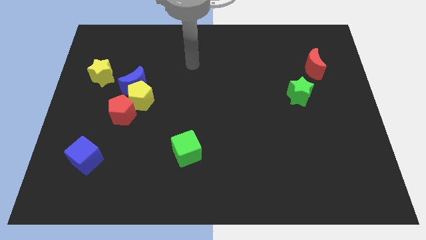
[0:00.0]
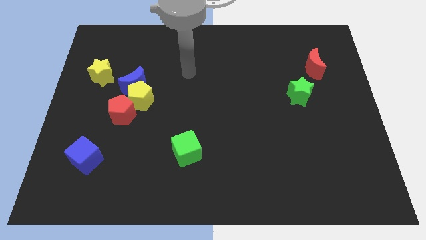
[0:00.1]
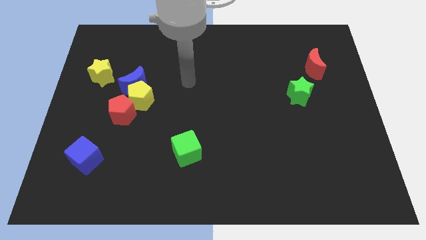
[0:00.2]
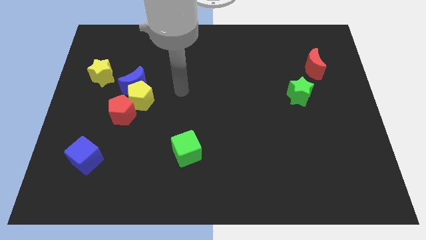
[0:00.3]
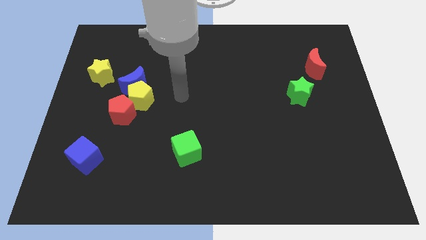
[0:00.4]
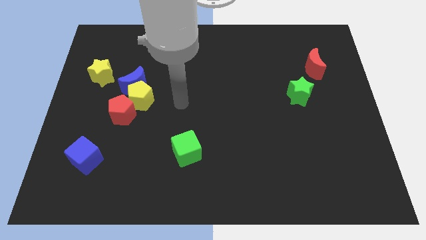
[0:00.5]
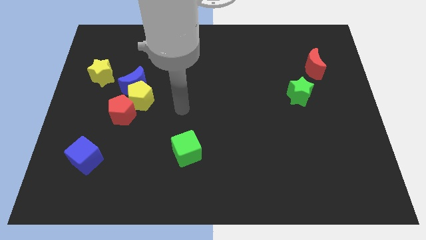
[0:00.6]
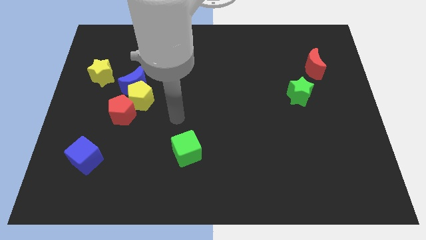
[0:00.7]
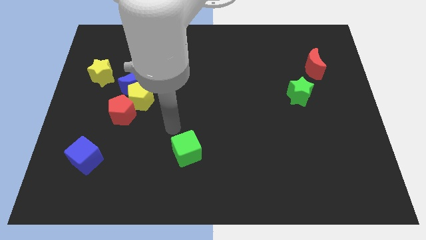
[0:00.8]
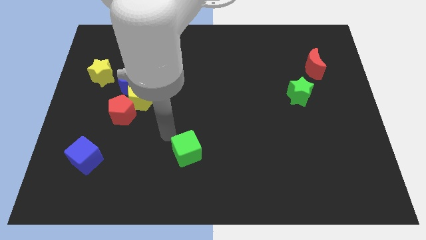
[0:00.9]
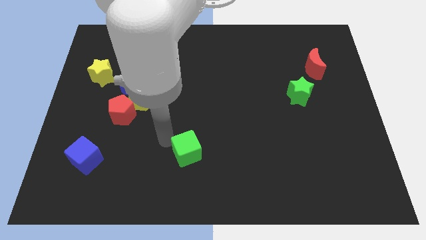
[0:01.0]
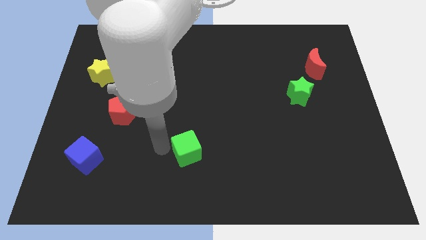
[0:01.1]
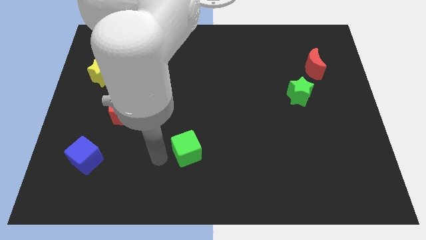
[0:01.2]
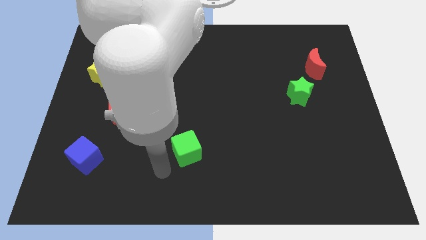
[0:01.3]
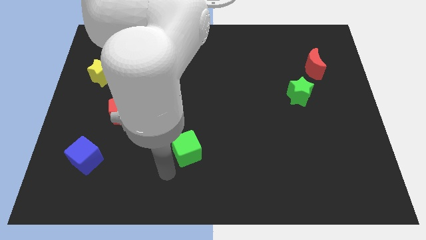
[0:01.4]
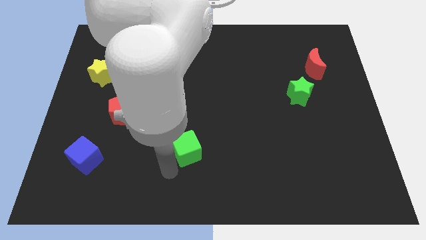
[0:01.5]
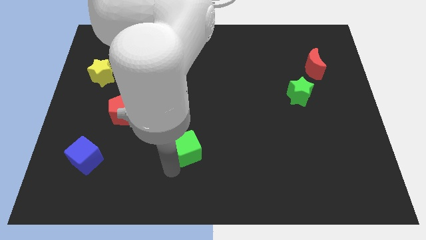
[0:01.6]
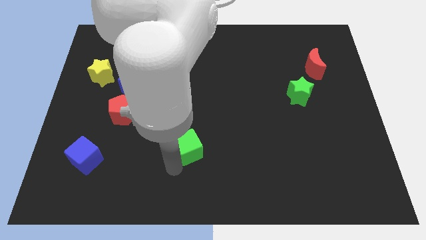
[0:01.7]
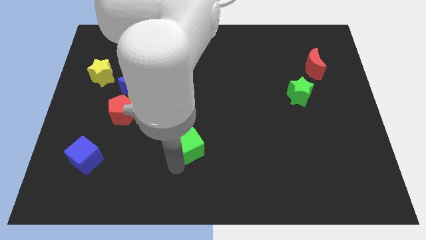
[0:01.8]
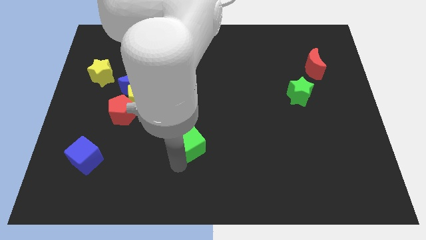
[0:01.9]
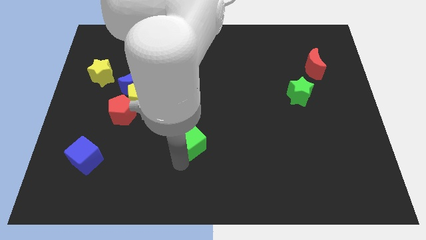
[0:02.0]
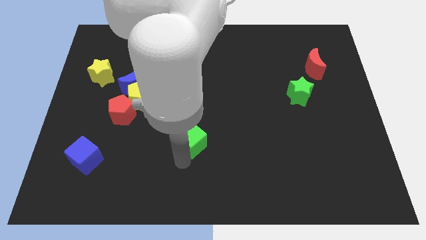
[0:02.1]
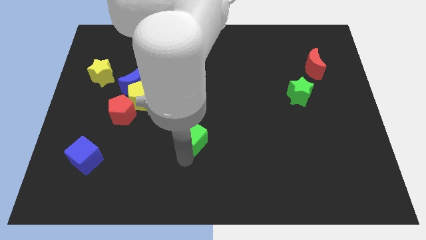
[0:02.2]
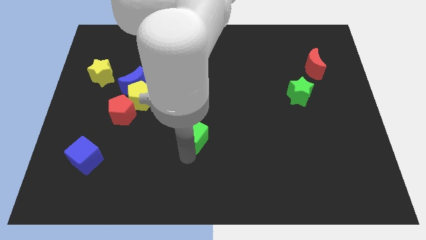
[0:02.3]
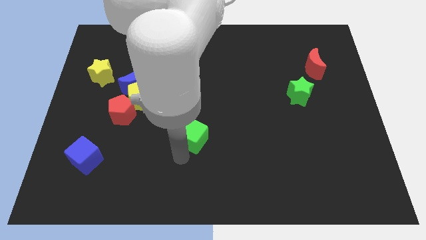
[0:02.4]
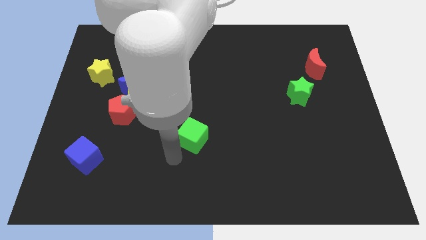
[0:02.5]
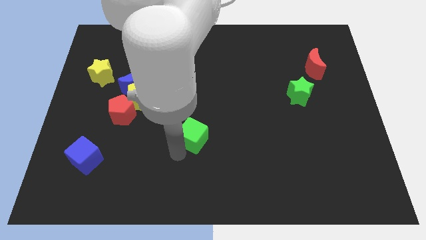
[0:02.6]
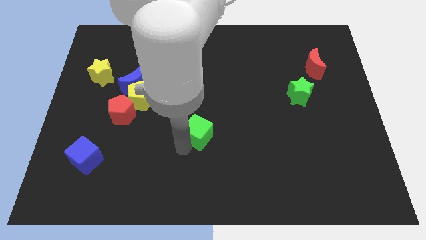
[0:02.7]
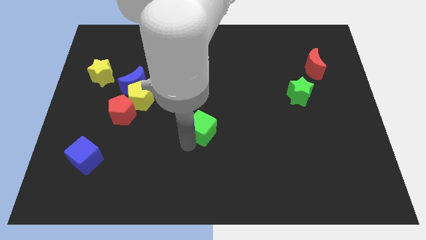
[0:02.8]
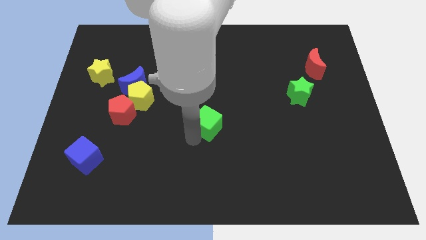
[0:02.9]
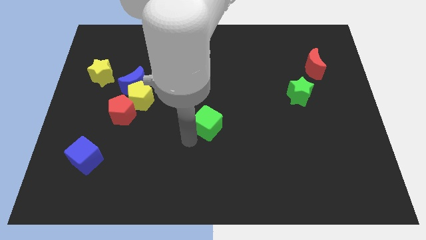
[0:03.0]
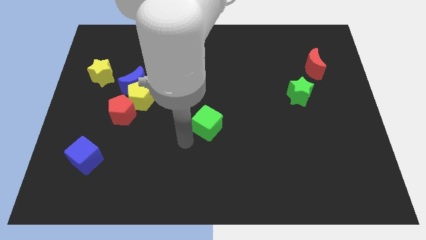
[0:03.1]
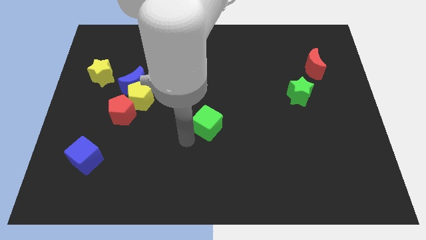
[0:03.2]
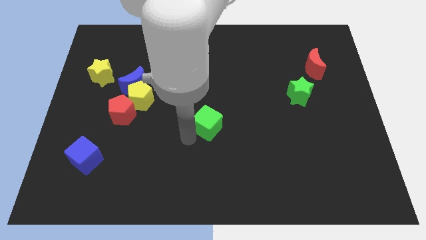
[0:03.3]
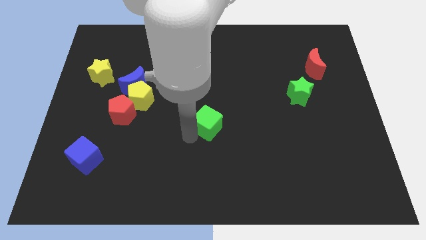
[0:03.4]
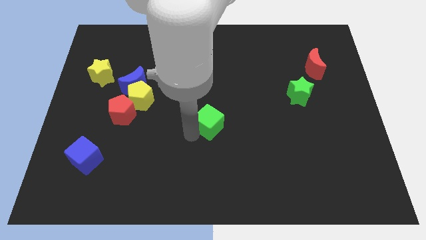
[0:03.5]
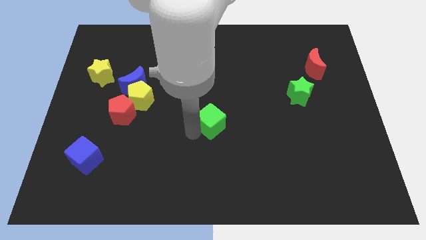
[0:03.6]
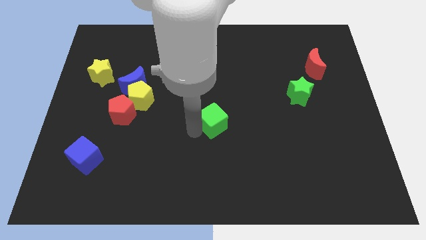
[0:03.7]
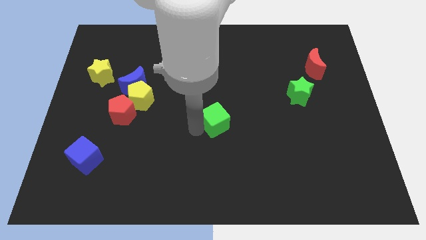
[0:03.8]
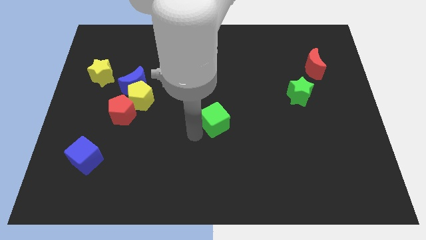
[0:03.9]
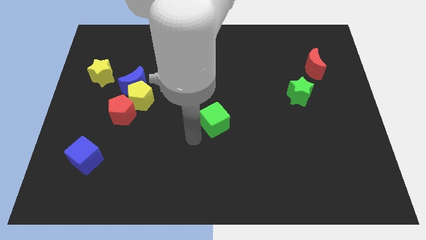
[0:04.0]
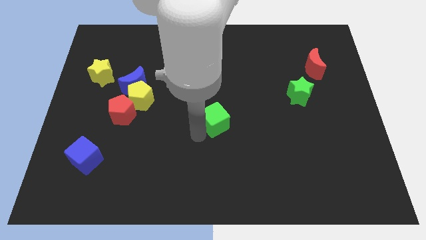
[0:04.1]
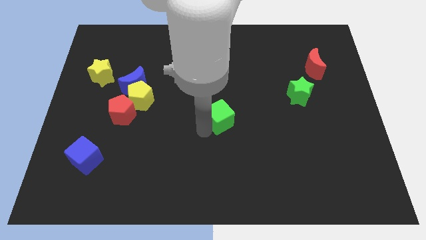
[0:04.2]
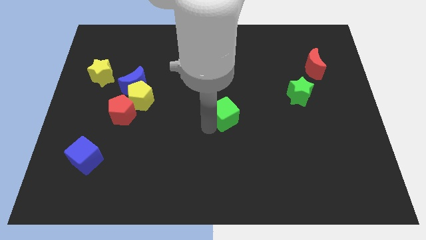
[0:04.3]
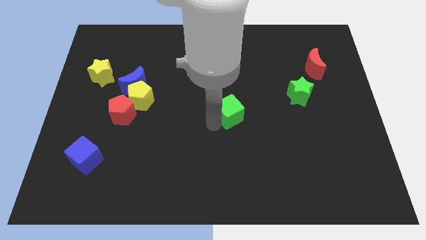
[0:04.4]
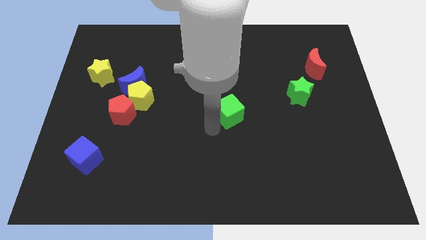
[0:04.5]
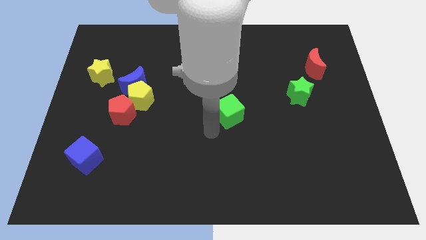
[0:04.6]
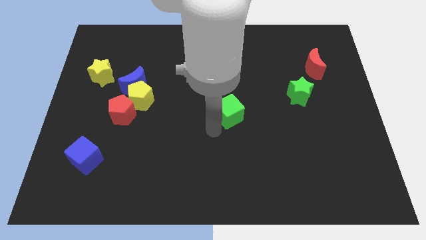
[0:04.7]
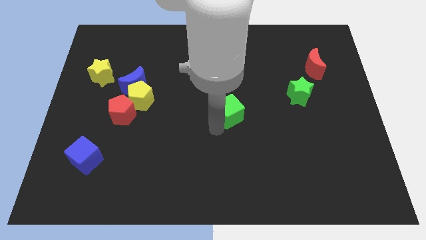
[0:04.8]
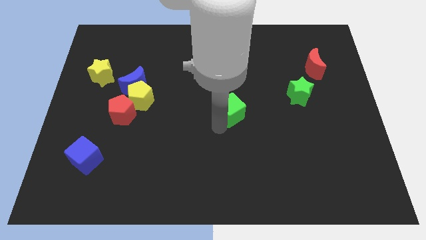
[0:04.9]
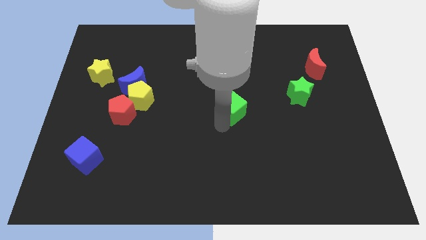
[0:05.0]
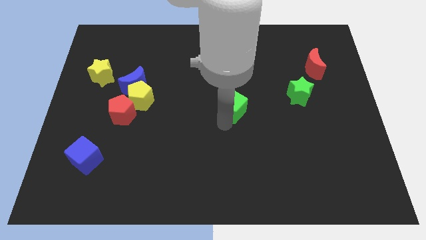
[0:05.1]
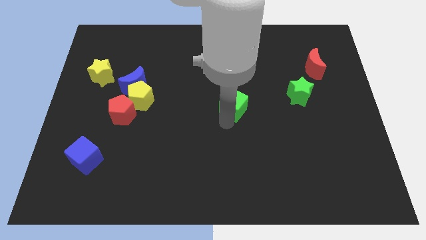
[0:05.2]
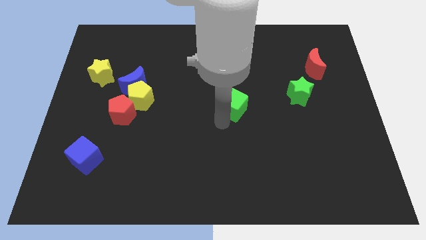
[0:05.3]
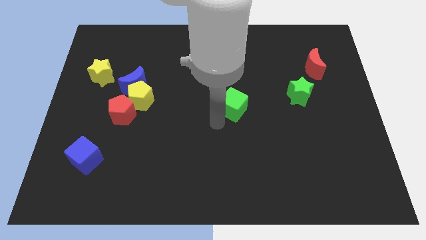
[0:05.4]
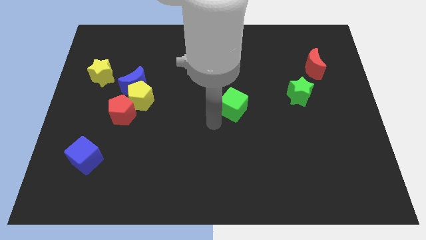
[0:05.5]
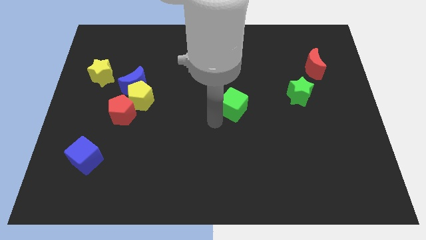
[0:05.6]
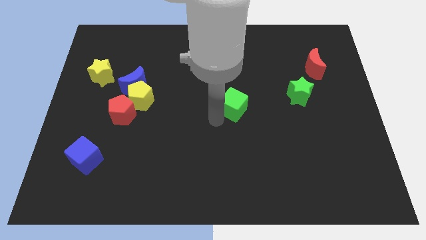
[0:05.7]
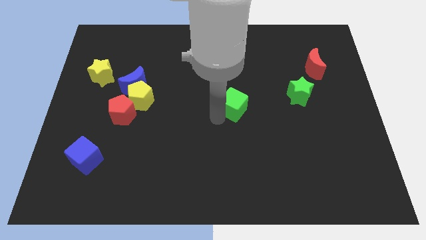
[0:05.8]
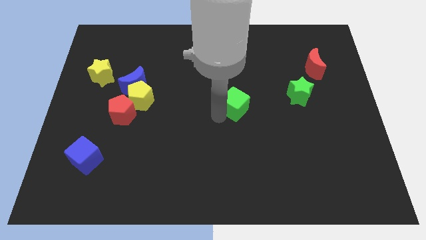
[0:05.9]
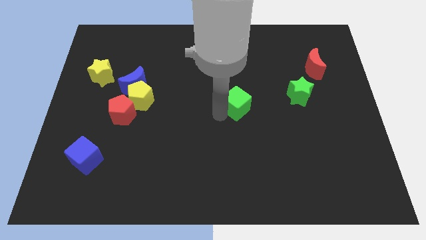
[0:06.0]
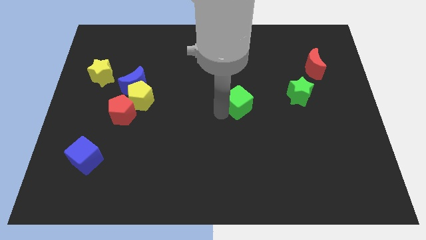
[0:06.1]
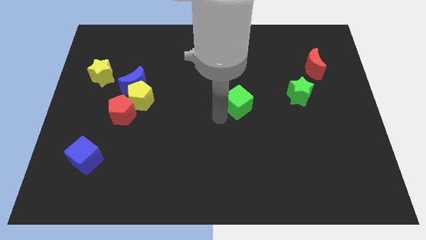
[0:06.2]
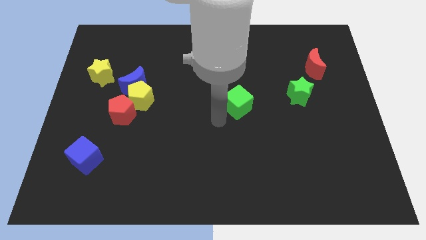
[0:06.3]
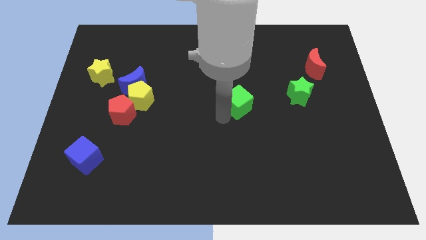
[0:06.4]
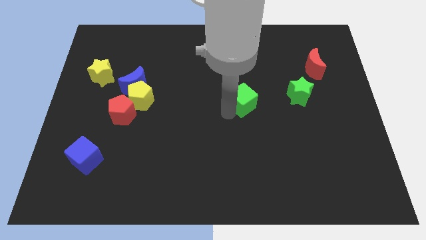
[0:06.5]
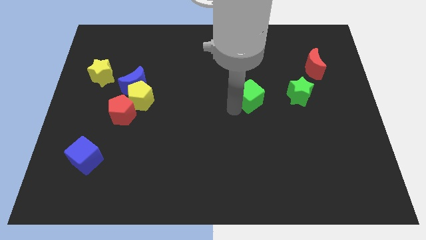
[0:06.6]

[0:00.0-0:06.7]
move the green cube diagonally upwards and to the right

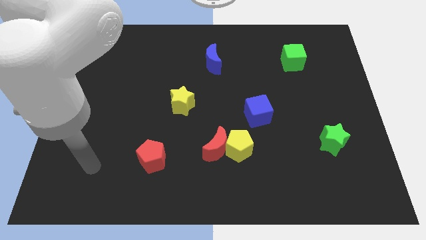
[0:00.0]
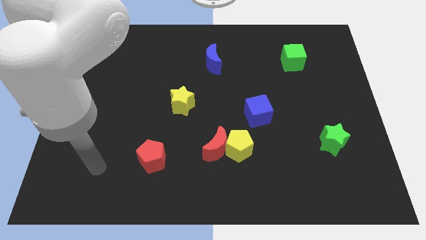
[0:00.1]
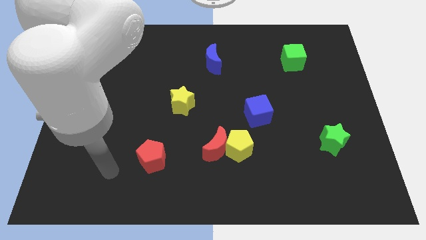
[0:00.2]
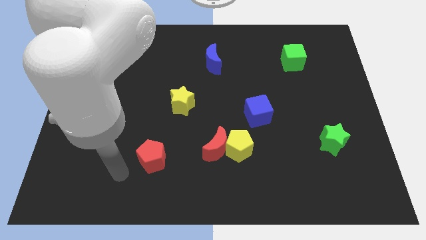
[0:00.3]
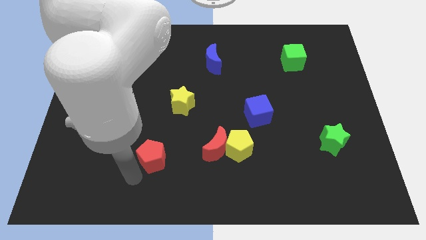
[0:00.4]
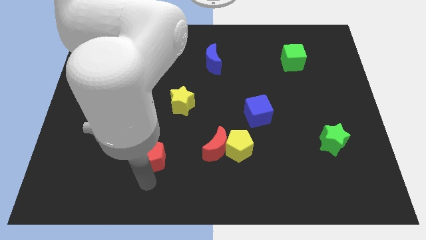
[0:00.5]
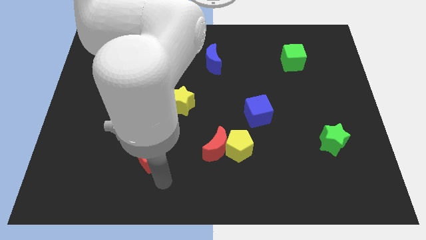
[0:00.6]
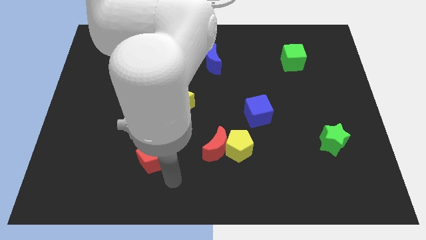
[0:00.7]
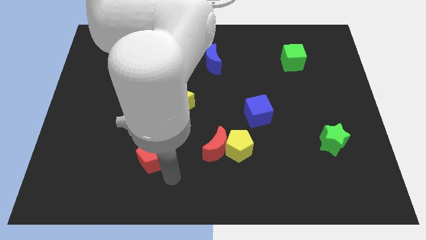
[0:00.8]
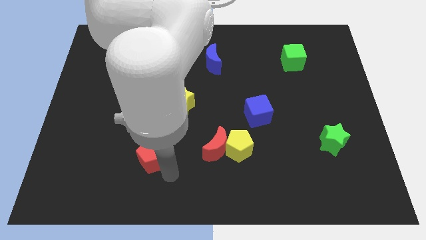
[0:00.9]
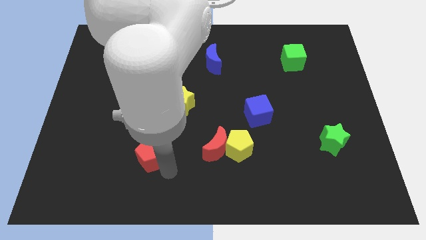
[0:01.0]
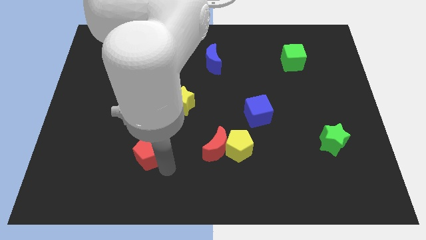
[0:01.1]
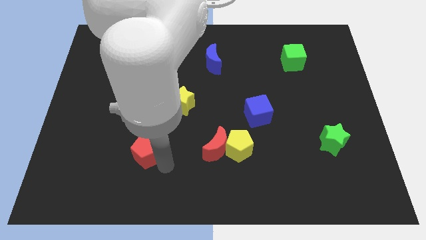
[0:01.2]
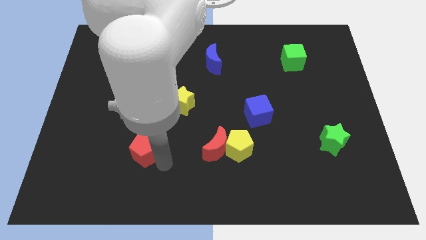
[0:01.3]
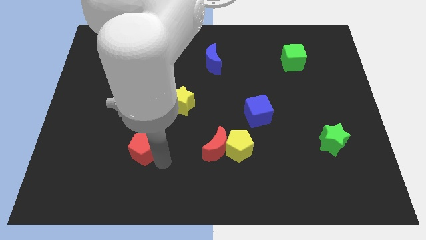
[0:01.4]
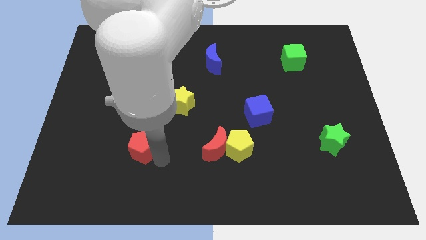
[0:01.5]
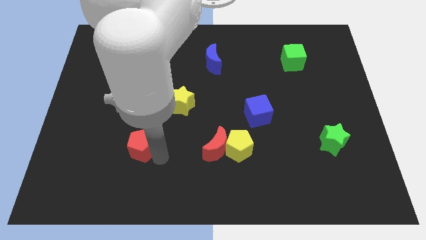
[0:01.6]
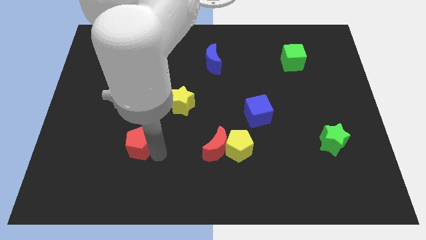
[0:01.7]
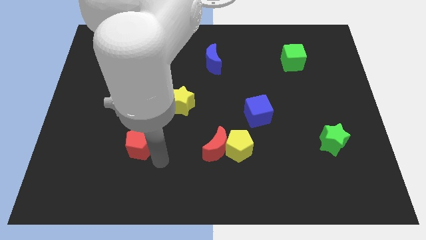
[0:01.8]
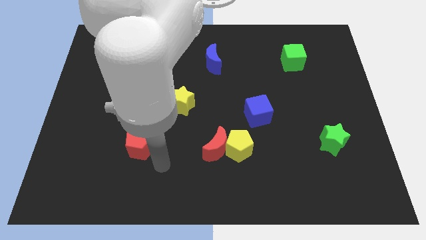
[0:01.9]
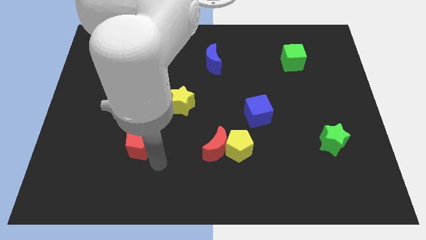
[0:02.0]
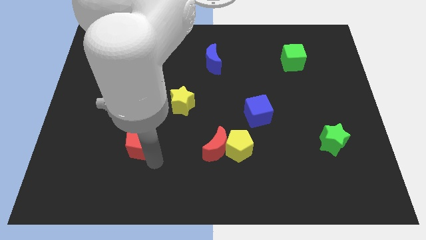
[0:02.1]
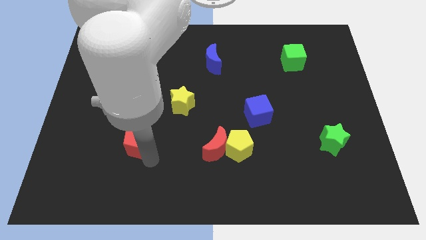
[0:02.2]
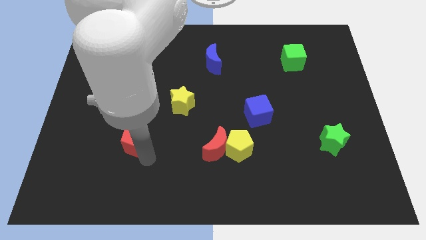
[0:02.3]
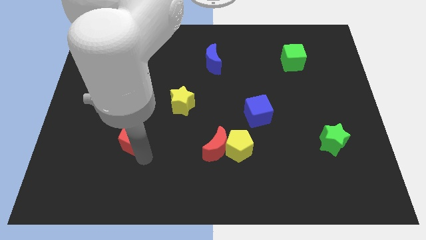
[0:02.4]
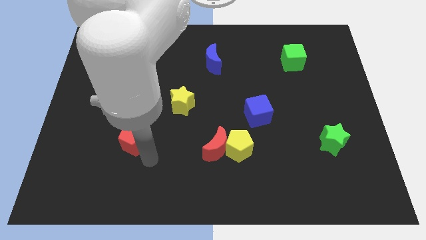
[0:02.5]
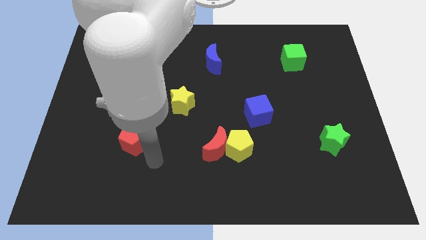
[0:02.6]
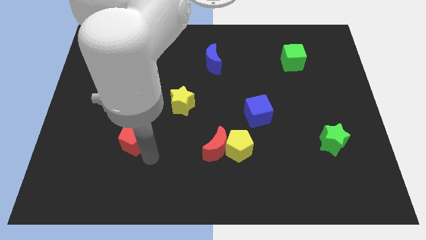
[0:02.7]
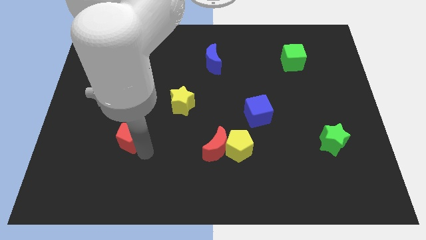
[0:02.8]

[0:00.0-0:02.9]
move the red pentagon a bit diagonally upwards and left
